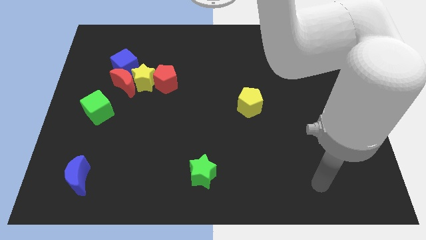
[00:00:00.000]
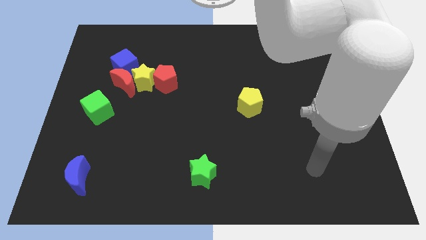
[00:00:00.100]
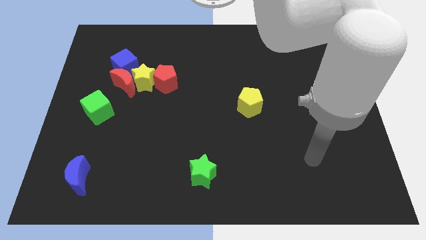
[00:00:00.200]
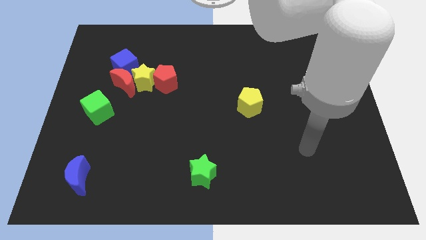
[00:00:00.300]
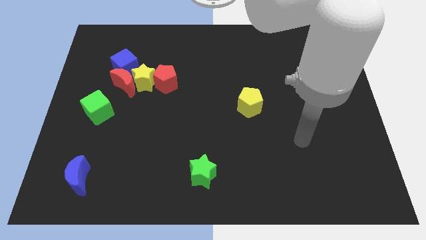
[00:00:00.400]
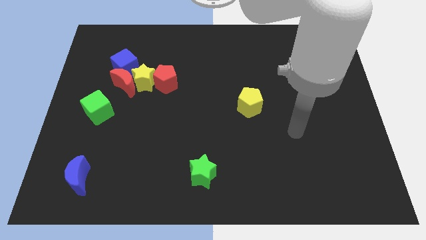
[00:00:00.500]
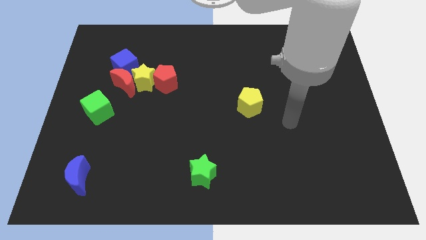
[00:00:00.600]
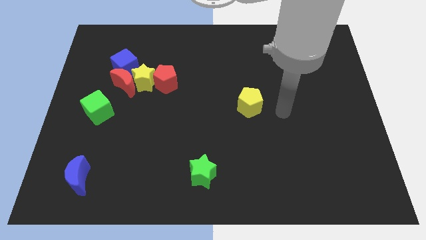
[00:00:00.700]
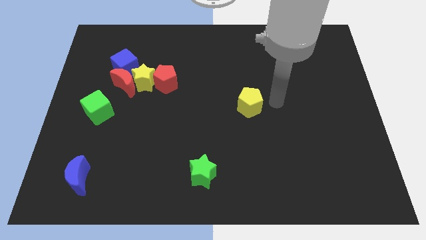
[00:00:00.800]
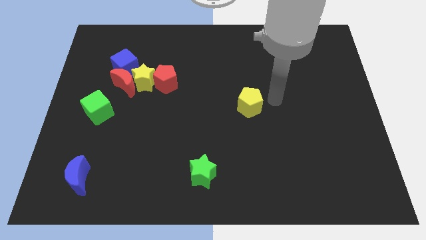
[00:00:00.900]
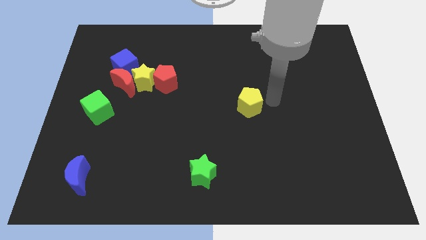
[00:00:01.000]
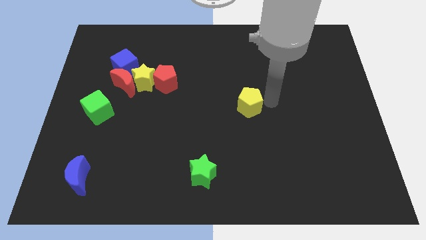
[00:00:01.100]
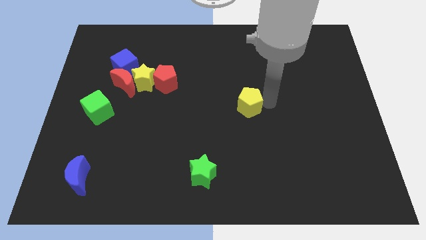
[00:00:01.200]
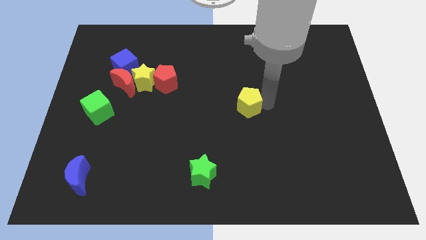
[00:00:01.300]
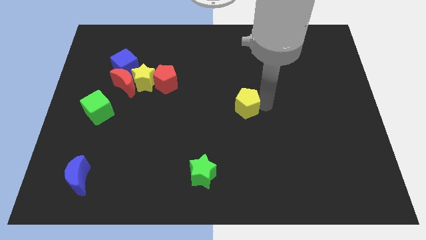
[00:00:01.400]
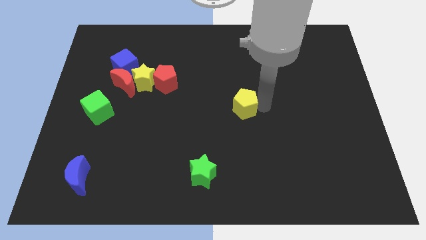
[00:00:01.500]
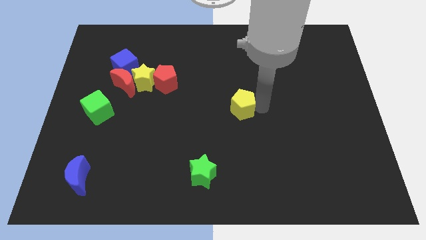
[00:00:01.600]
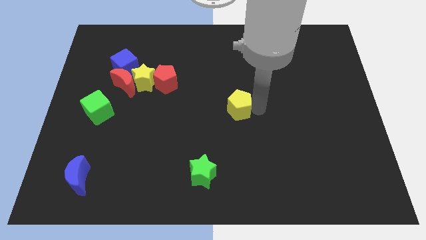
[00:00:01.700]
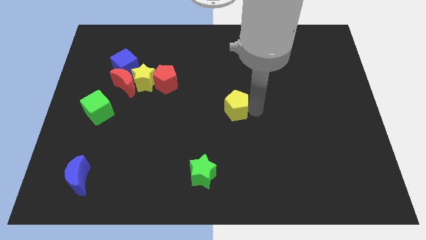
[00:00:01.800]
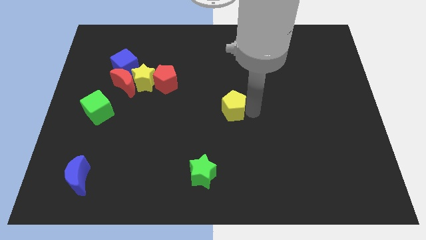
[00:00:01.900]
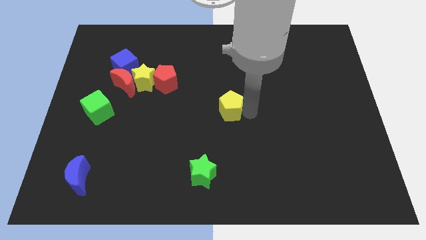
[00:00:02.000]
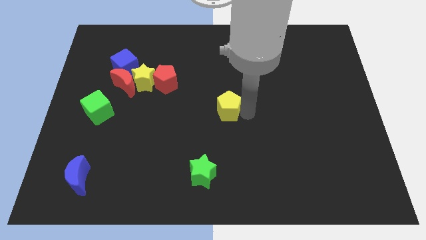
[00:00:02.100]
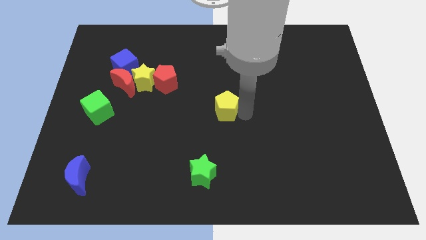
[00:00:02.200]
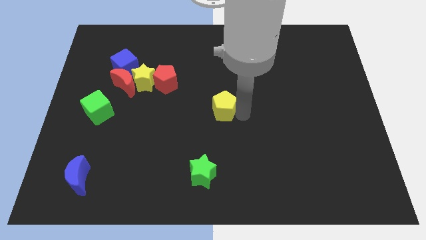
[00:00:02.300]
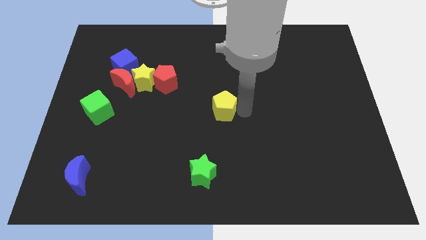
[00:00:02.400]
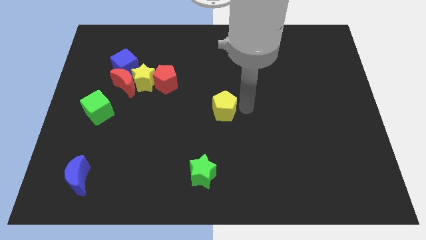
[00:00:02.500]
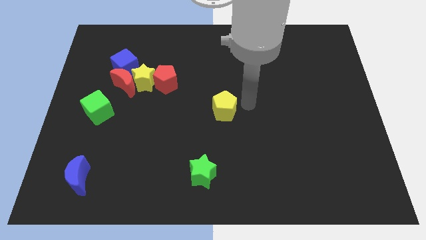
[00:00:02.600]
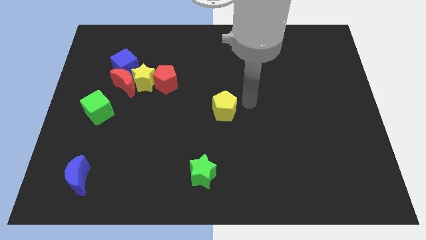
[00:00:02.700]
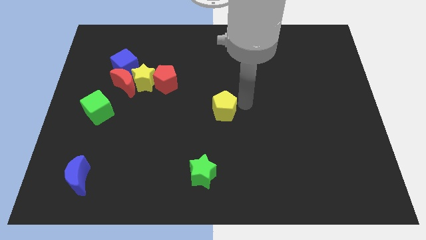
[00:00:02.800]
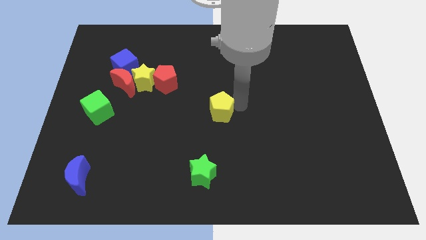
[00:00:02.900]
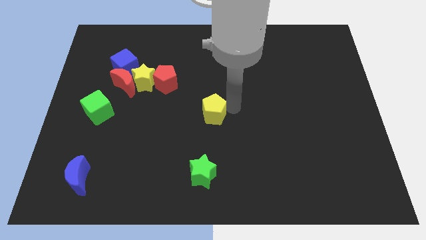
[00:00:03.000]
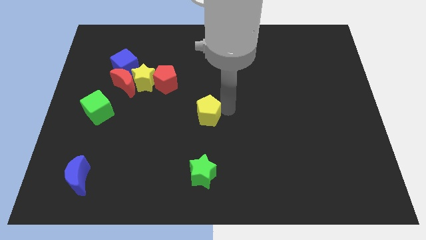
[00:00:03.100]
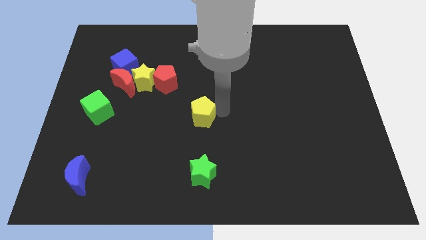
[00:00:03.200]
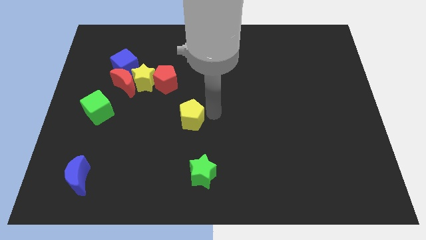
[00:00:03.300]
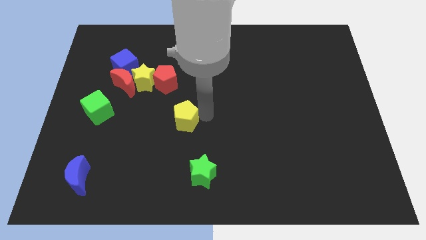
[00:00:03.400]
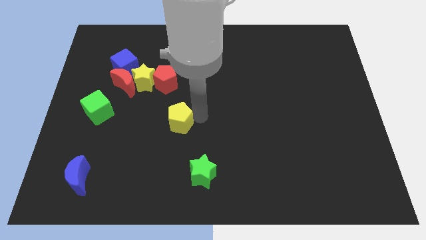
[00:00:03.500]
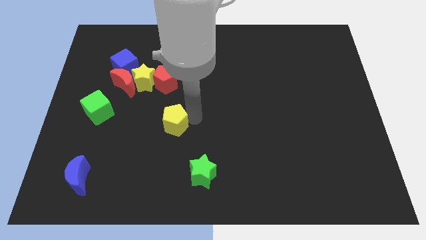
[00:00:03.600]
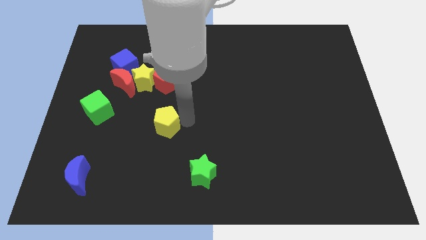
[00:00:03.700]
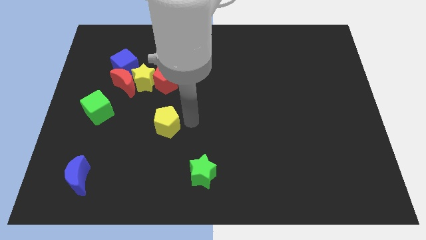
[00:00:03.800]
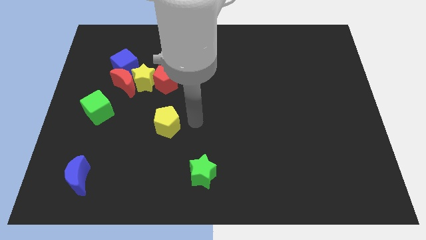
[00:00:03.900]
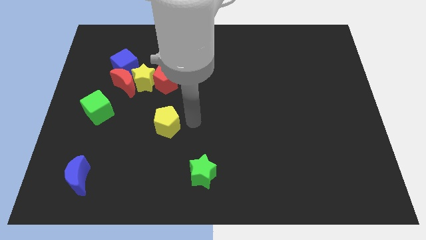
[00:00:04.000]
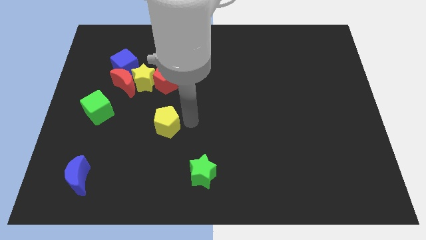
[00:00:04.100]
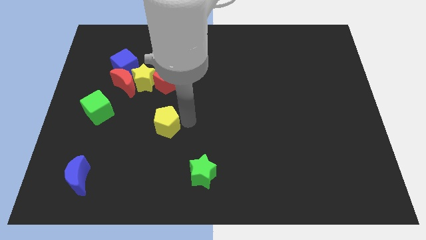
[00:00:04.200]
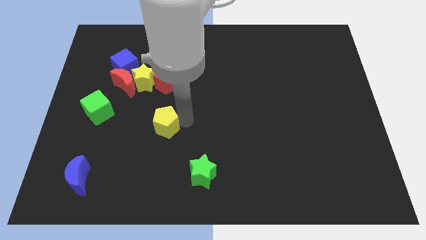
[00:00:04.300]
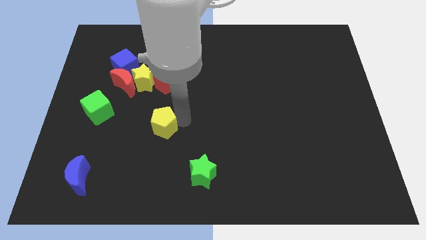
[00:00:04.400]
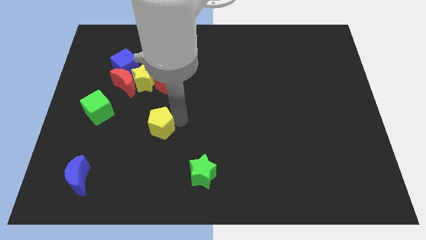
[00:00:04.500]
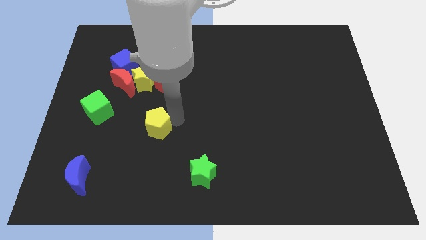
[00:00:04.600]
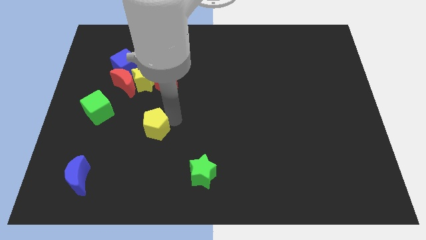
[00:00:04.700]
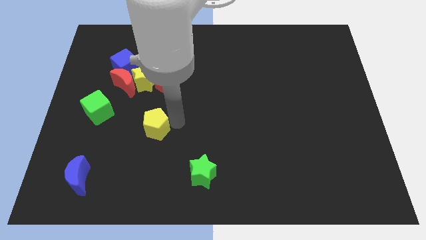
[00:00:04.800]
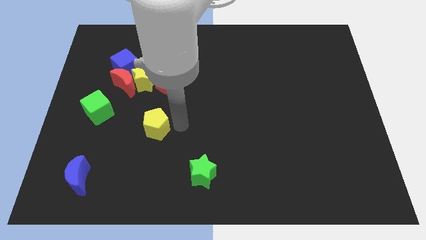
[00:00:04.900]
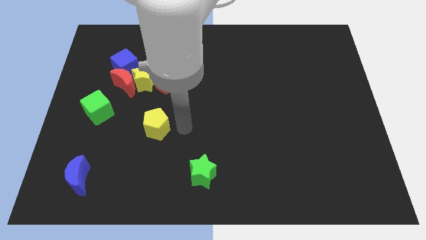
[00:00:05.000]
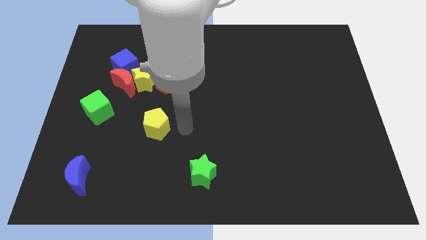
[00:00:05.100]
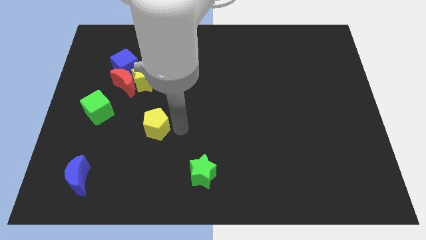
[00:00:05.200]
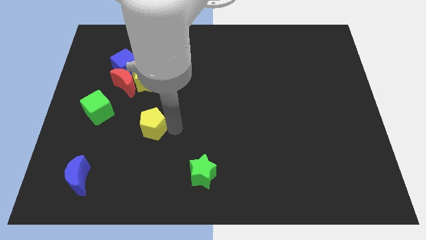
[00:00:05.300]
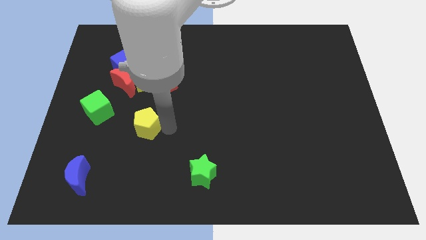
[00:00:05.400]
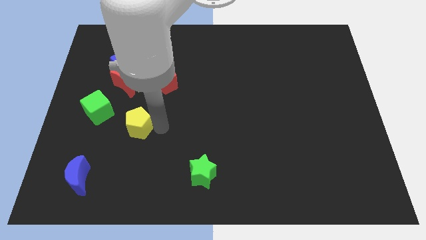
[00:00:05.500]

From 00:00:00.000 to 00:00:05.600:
put the yellow pentagon diagonally down and to the right of the green cube

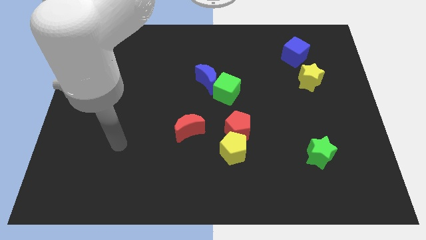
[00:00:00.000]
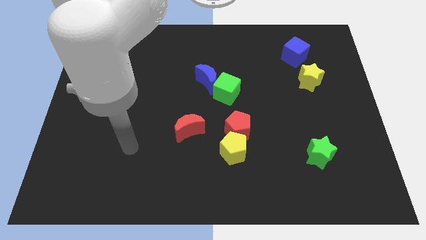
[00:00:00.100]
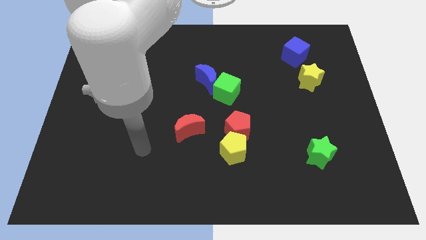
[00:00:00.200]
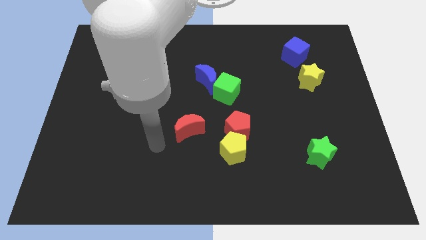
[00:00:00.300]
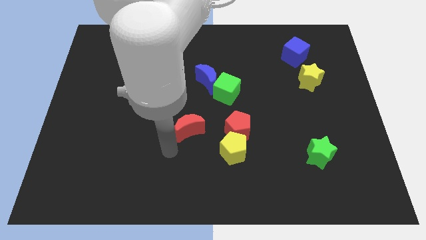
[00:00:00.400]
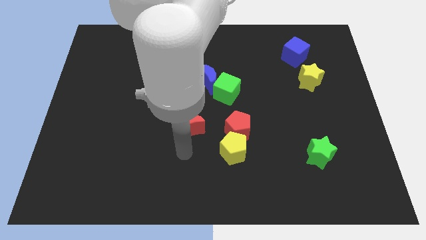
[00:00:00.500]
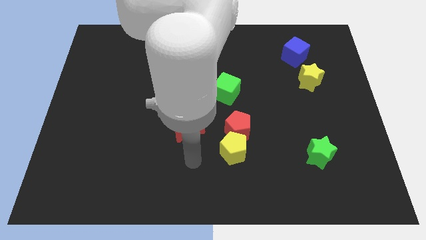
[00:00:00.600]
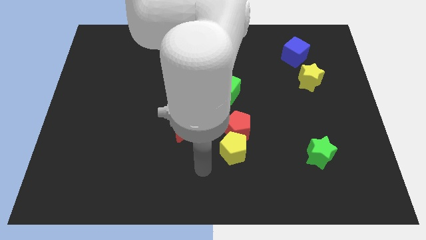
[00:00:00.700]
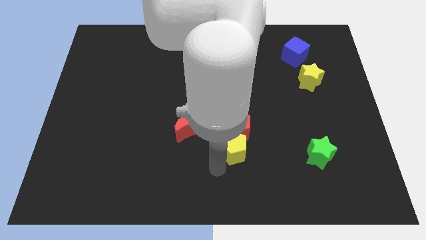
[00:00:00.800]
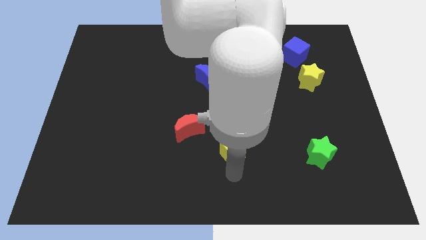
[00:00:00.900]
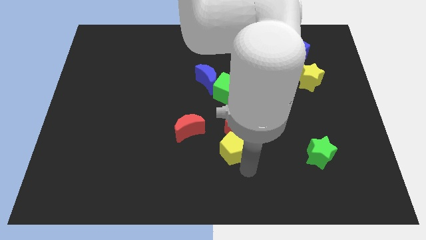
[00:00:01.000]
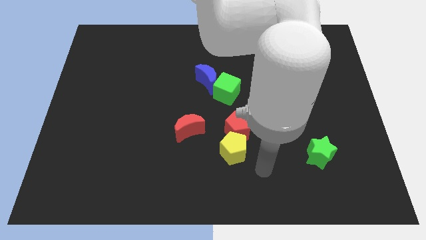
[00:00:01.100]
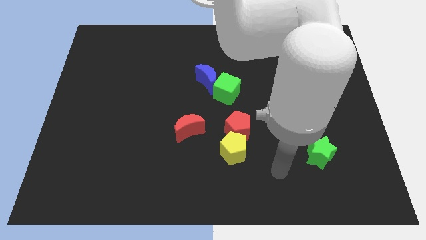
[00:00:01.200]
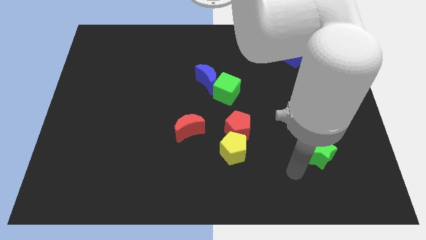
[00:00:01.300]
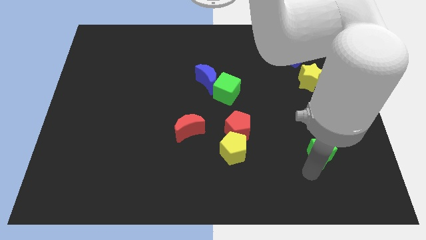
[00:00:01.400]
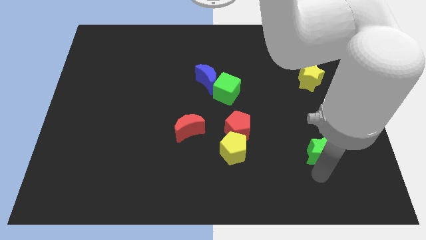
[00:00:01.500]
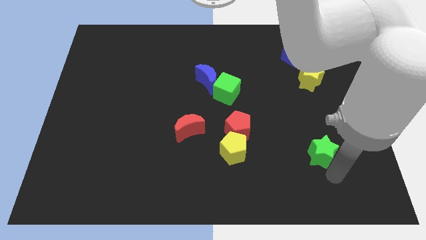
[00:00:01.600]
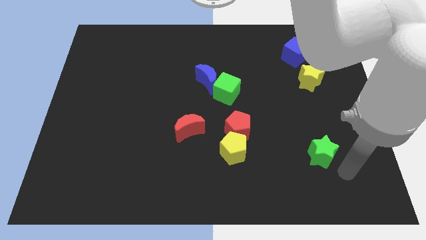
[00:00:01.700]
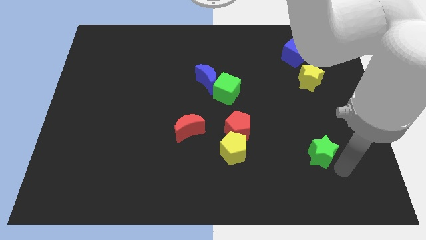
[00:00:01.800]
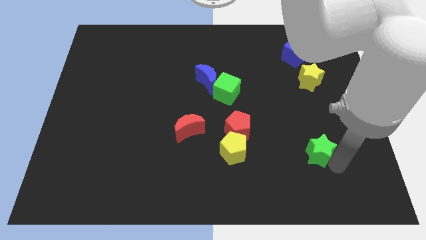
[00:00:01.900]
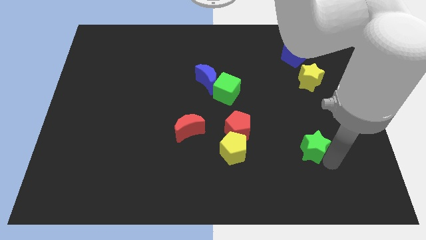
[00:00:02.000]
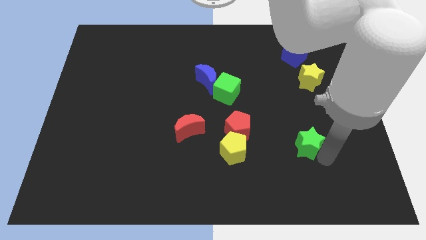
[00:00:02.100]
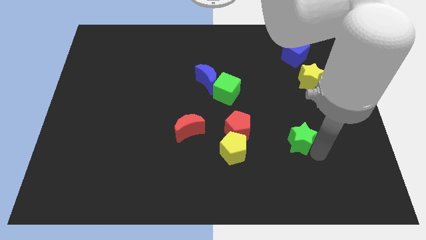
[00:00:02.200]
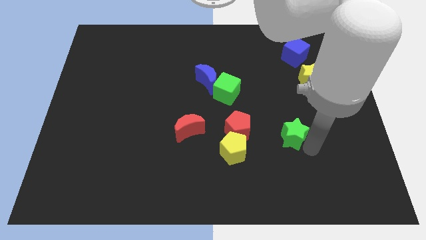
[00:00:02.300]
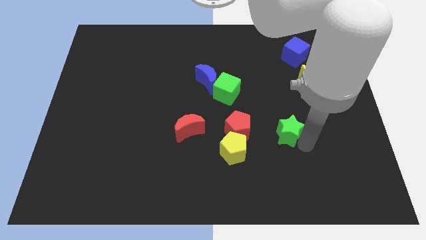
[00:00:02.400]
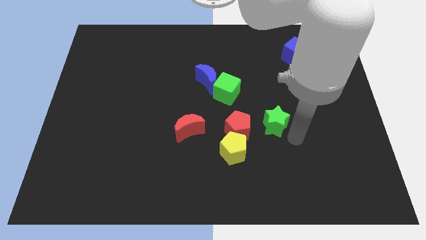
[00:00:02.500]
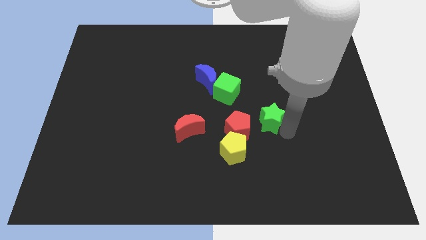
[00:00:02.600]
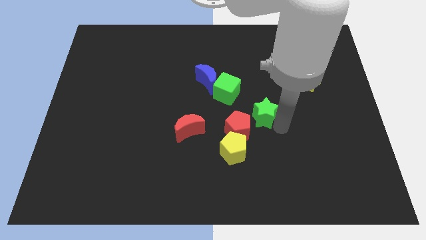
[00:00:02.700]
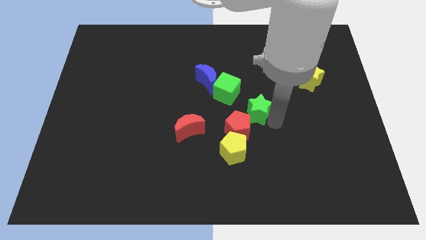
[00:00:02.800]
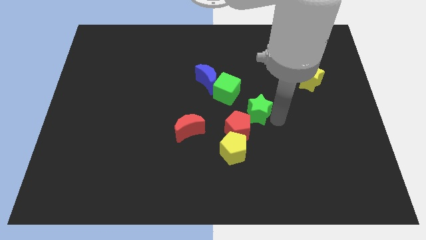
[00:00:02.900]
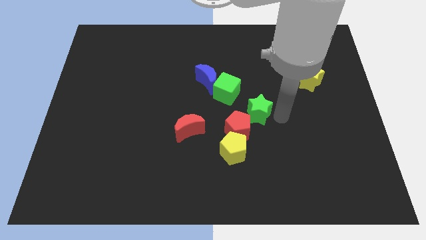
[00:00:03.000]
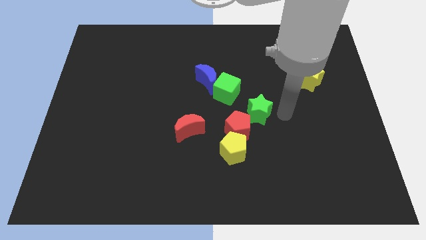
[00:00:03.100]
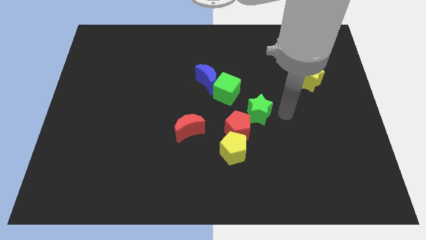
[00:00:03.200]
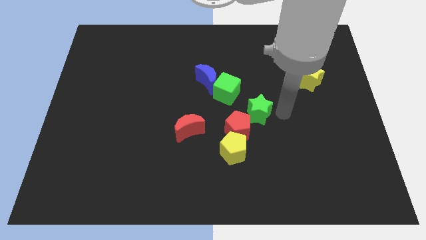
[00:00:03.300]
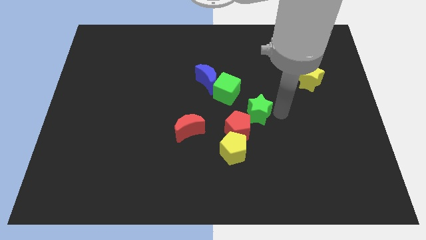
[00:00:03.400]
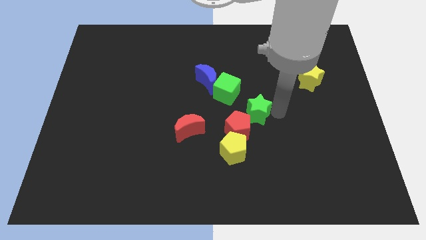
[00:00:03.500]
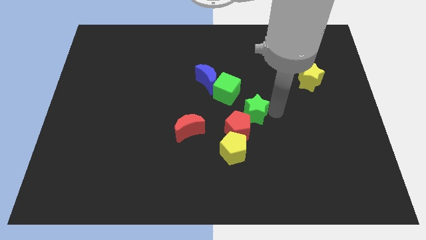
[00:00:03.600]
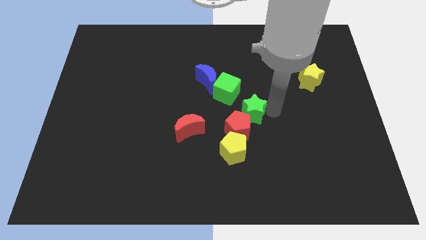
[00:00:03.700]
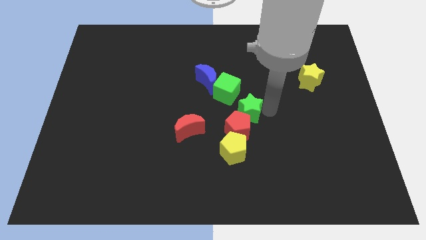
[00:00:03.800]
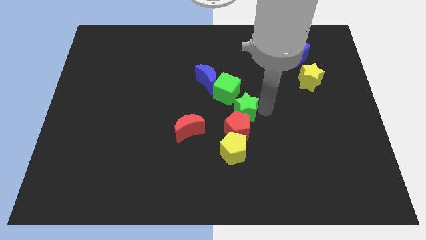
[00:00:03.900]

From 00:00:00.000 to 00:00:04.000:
move the green star diagonally up and to the left of the red pentagon
